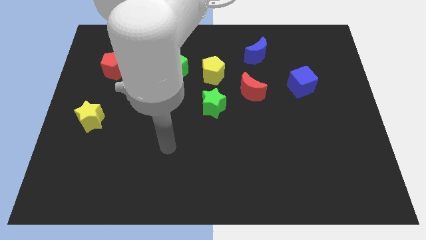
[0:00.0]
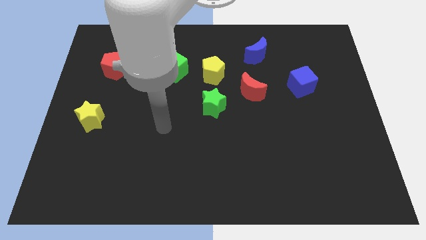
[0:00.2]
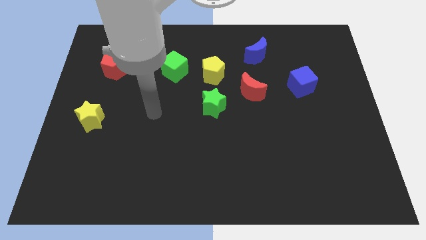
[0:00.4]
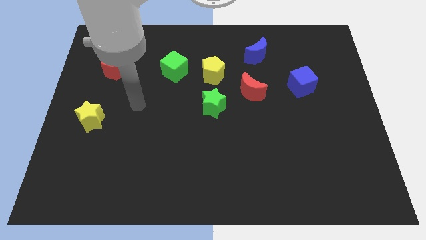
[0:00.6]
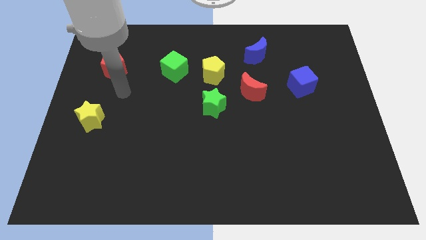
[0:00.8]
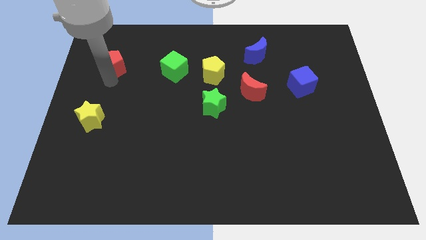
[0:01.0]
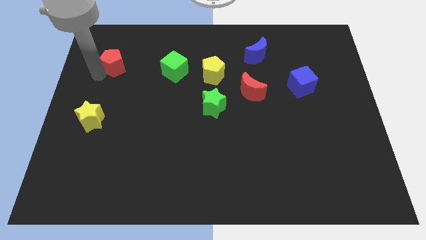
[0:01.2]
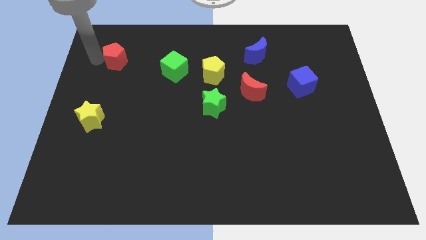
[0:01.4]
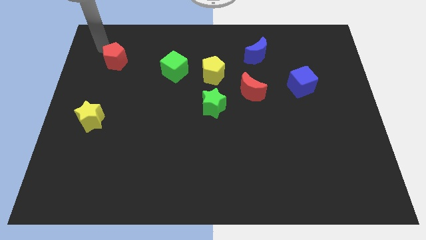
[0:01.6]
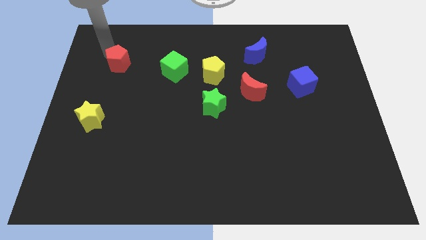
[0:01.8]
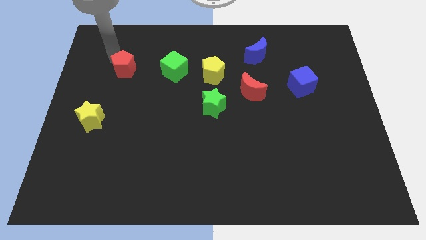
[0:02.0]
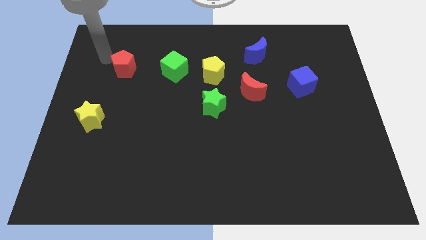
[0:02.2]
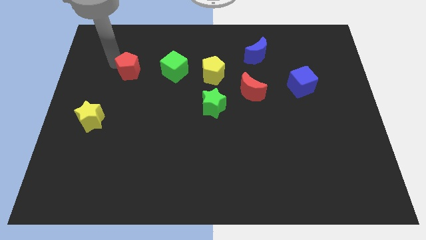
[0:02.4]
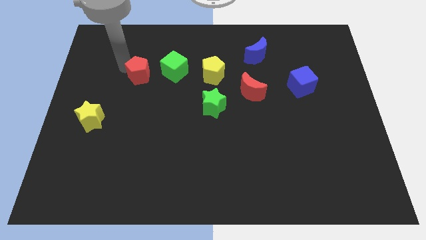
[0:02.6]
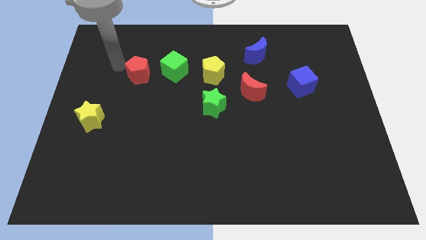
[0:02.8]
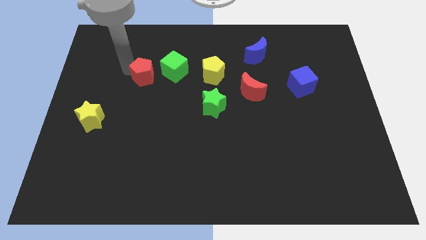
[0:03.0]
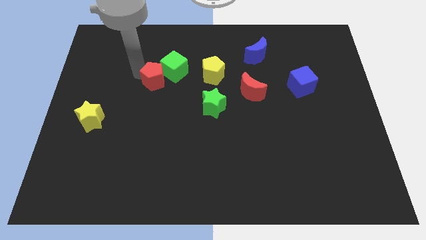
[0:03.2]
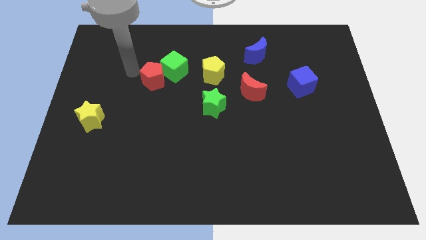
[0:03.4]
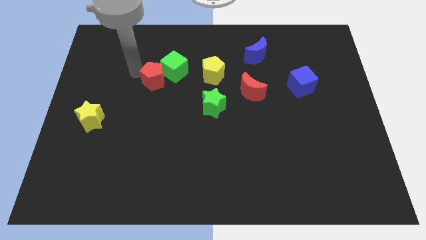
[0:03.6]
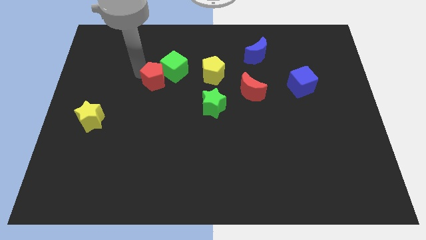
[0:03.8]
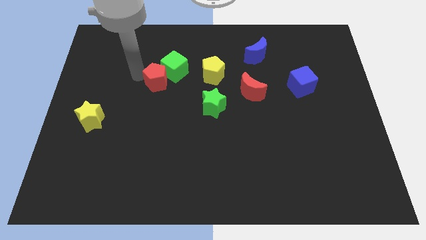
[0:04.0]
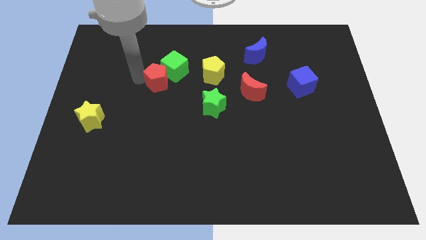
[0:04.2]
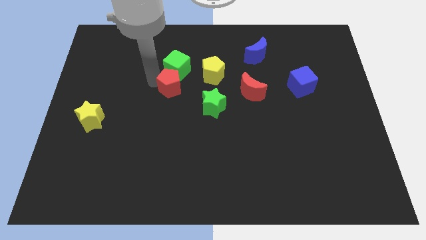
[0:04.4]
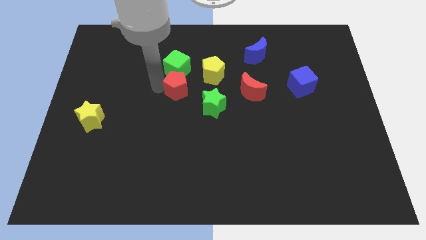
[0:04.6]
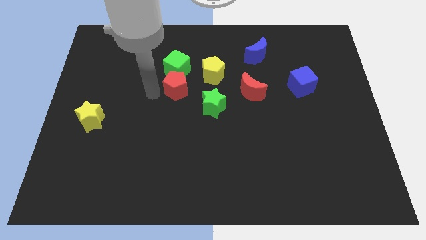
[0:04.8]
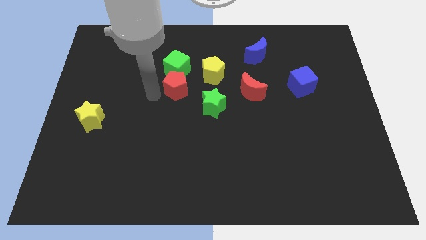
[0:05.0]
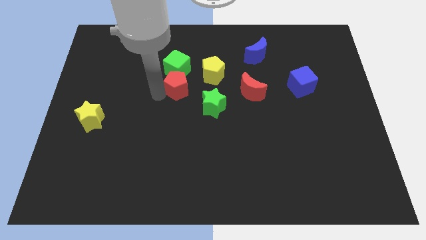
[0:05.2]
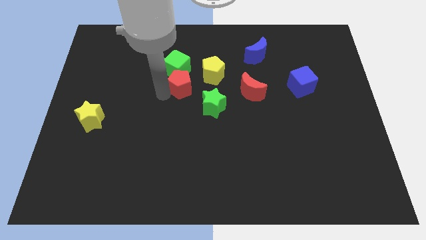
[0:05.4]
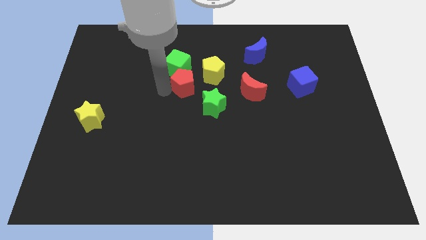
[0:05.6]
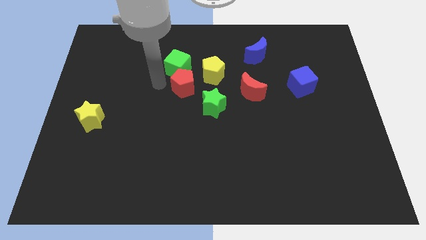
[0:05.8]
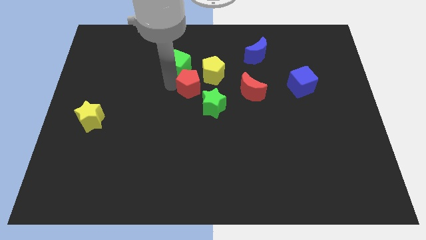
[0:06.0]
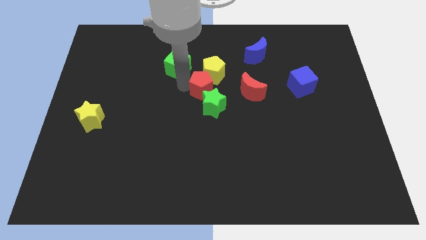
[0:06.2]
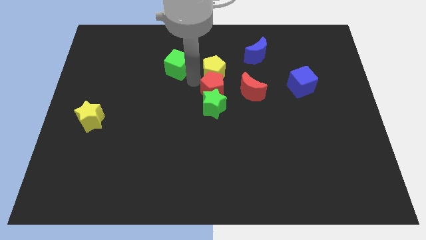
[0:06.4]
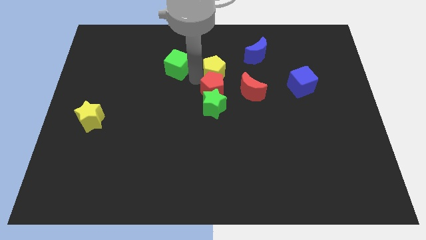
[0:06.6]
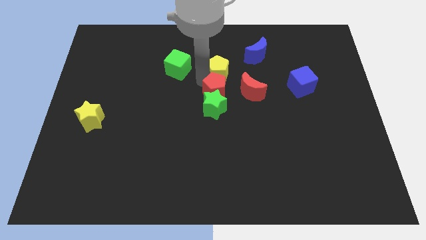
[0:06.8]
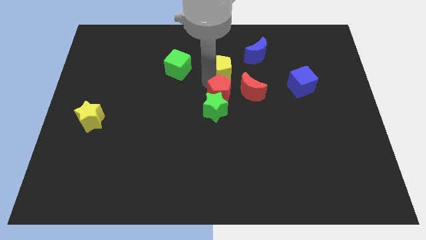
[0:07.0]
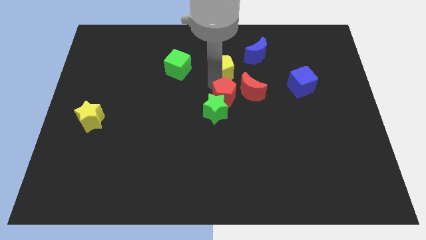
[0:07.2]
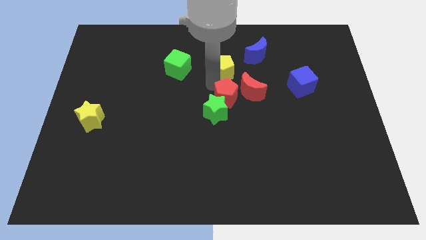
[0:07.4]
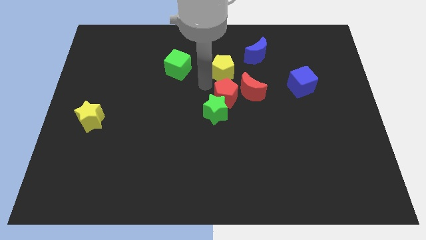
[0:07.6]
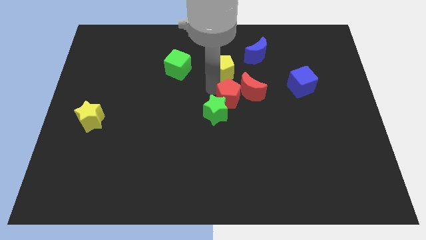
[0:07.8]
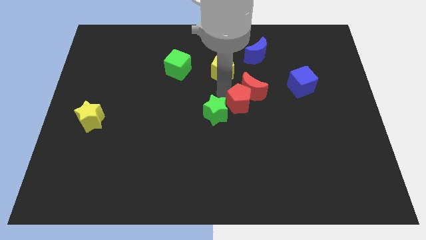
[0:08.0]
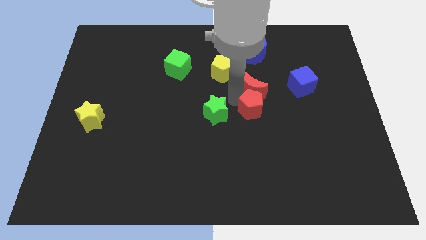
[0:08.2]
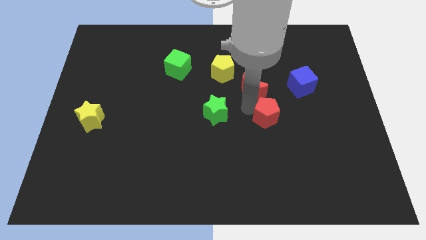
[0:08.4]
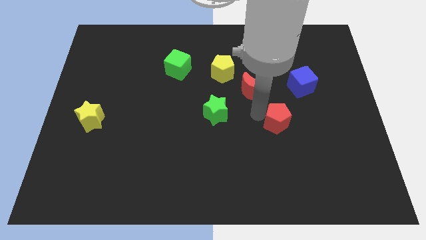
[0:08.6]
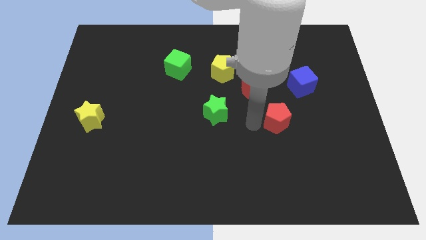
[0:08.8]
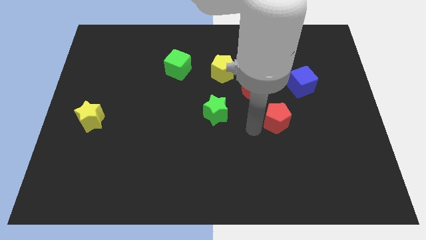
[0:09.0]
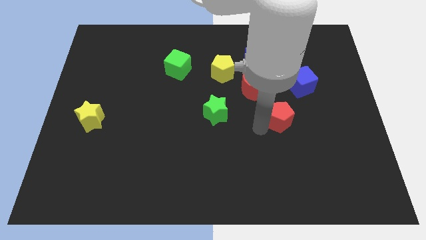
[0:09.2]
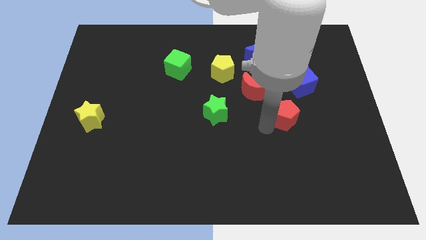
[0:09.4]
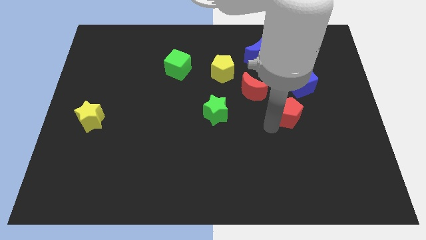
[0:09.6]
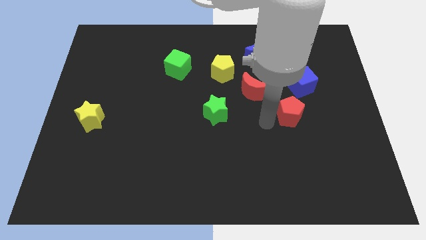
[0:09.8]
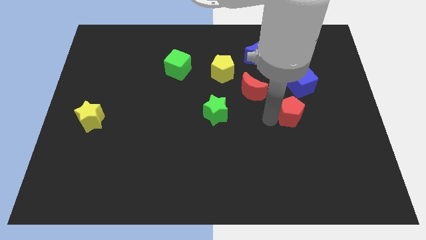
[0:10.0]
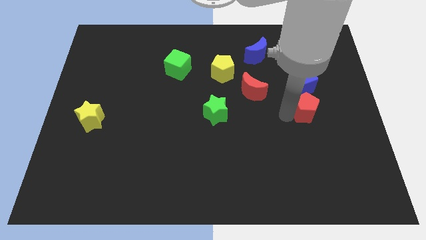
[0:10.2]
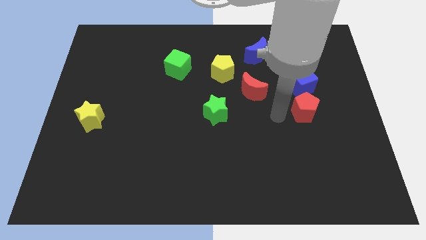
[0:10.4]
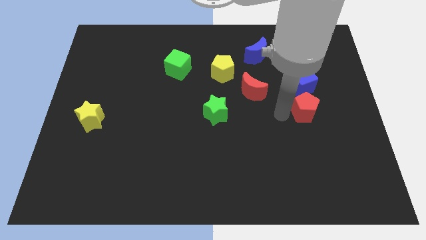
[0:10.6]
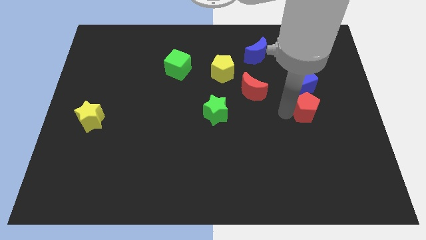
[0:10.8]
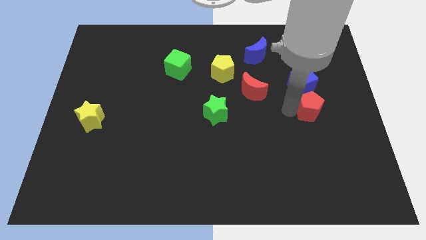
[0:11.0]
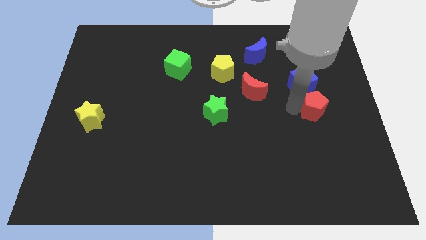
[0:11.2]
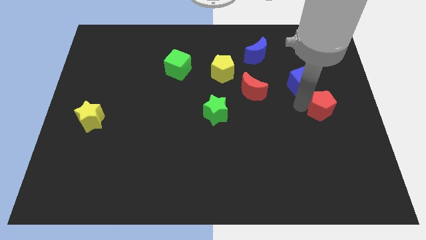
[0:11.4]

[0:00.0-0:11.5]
put the red pentagon to the right side of the board
